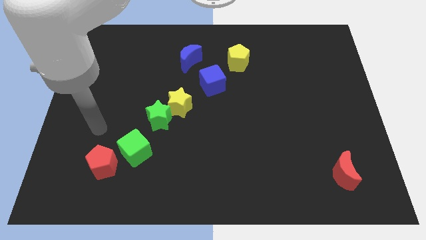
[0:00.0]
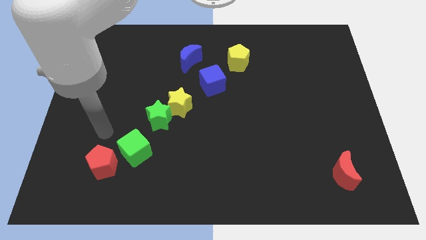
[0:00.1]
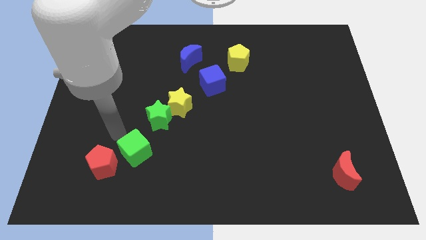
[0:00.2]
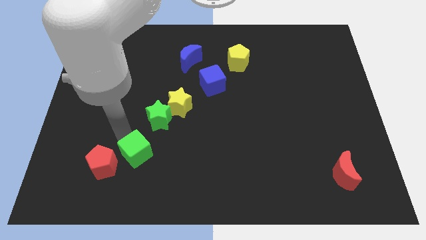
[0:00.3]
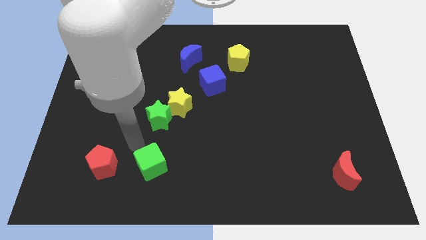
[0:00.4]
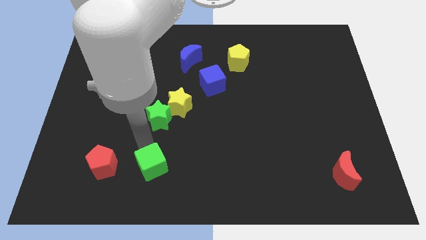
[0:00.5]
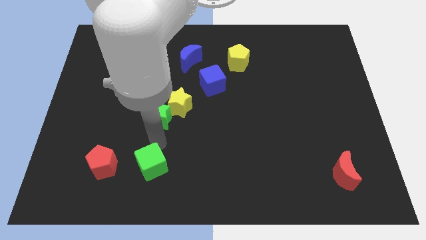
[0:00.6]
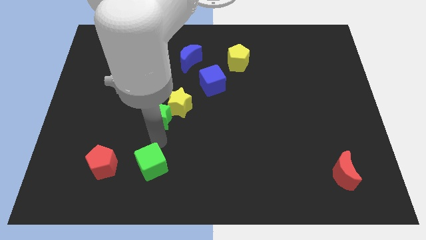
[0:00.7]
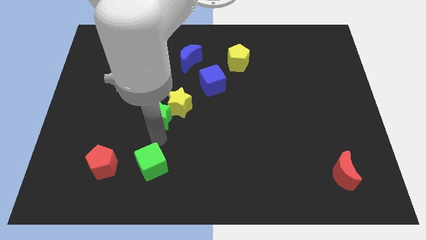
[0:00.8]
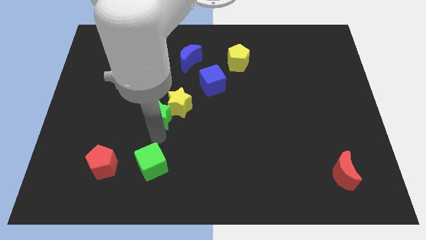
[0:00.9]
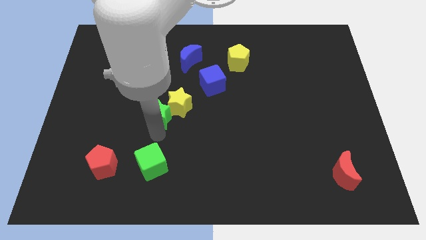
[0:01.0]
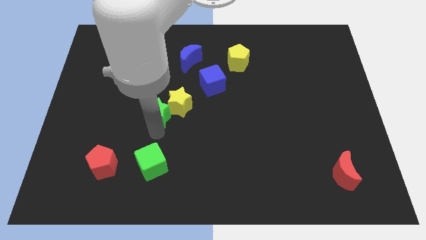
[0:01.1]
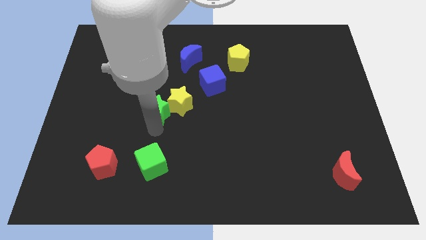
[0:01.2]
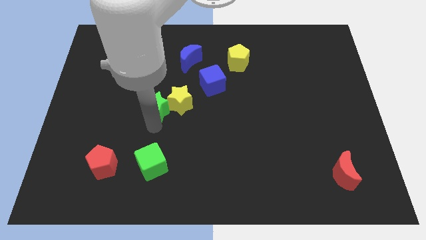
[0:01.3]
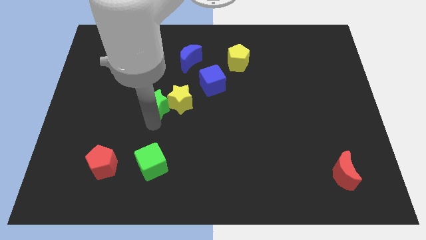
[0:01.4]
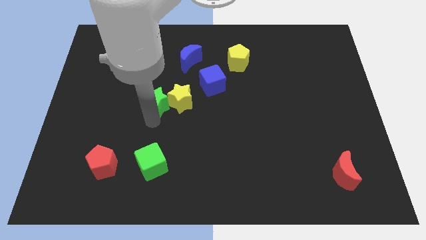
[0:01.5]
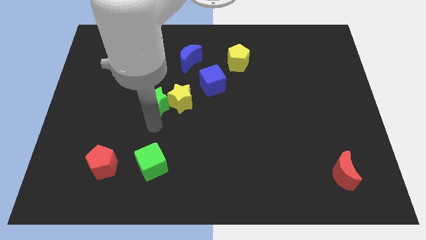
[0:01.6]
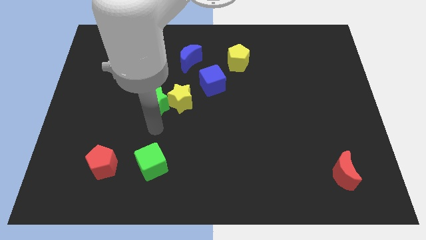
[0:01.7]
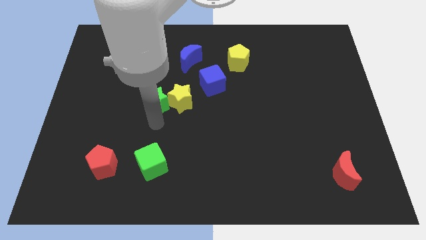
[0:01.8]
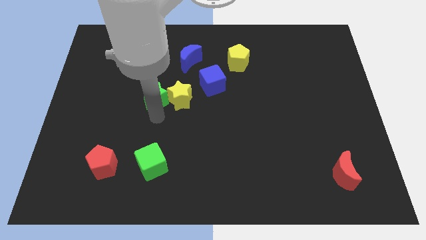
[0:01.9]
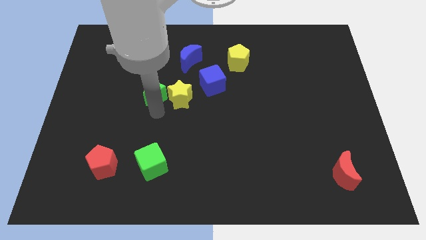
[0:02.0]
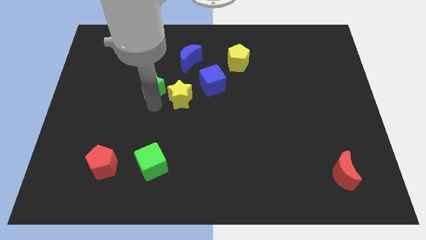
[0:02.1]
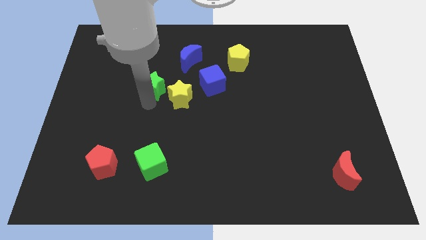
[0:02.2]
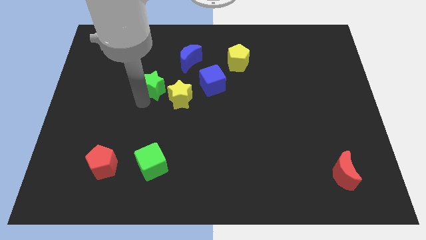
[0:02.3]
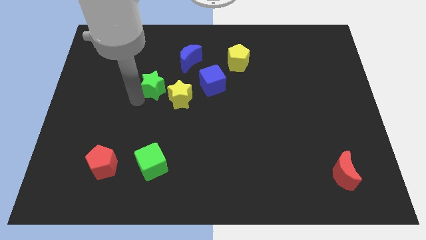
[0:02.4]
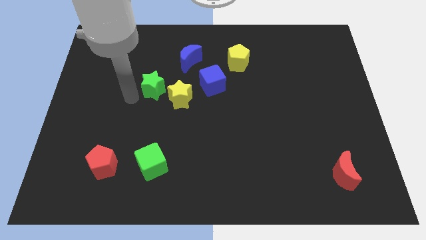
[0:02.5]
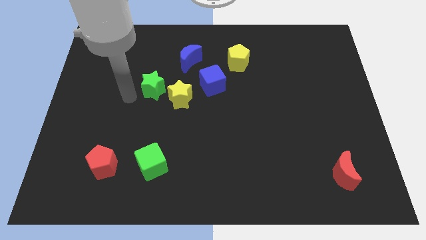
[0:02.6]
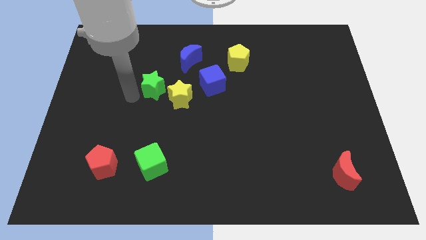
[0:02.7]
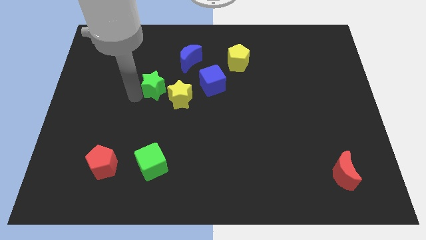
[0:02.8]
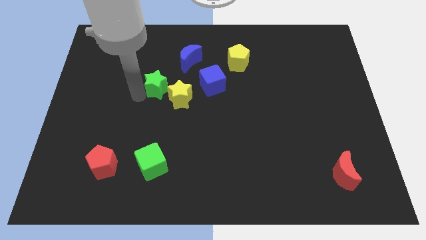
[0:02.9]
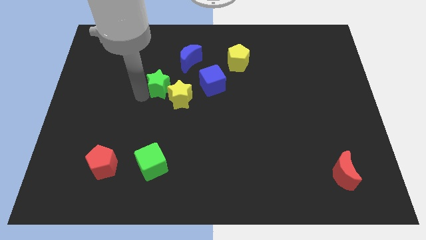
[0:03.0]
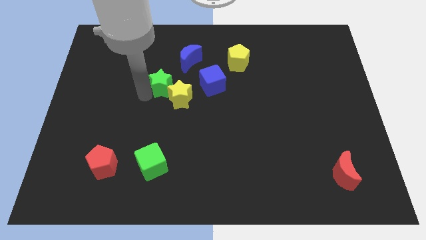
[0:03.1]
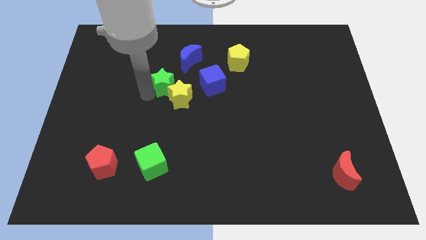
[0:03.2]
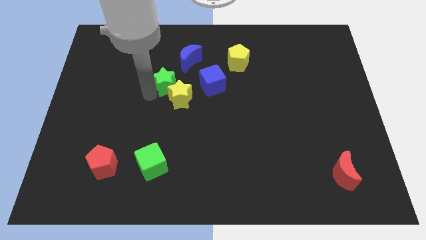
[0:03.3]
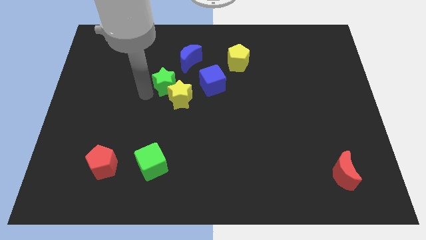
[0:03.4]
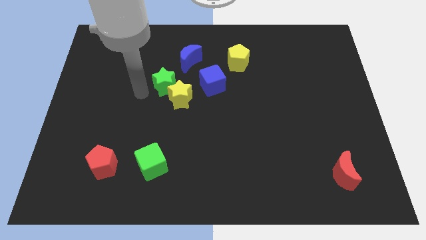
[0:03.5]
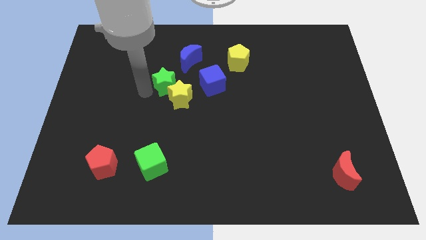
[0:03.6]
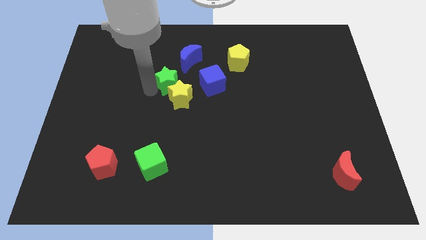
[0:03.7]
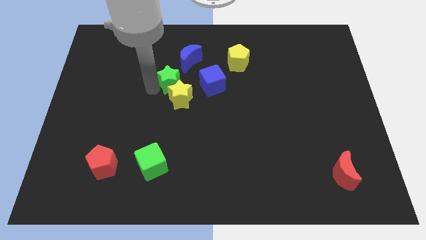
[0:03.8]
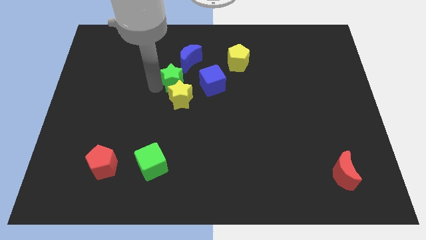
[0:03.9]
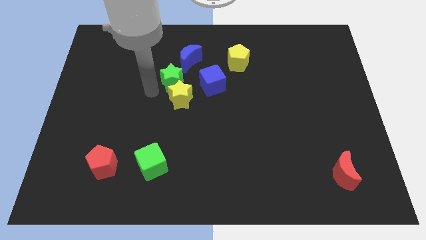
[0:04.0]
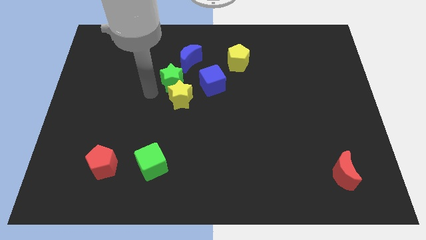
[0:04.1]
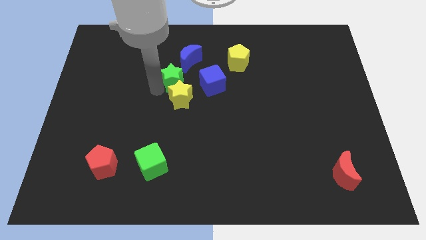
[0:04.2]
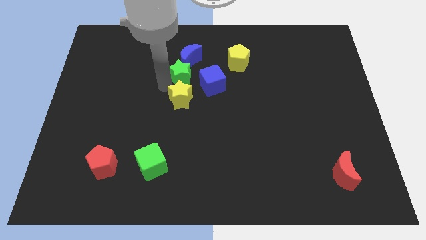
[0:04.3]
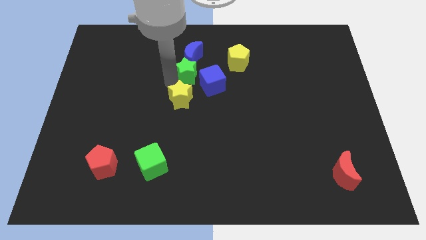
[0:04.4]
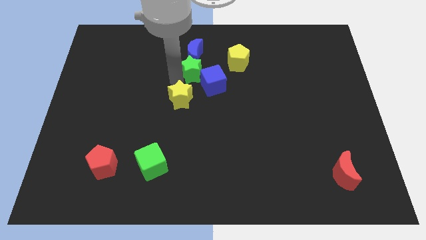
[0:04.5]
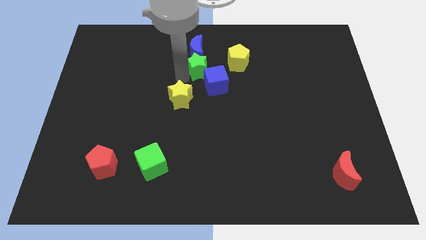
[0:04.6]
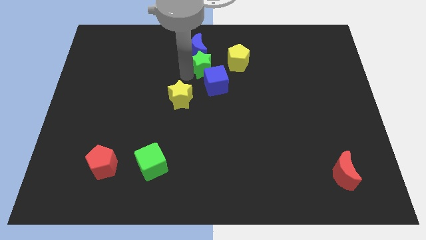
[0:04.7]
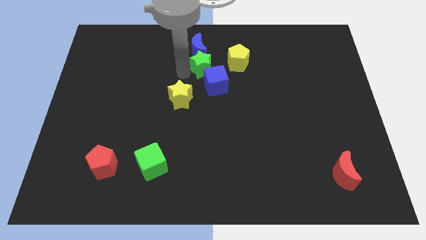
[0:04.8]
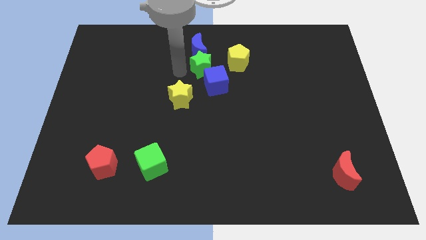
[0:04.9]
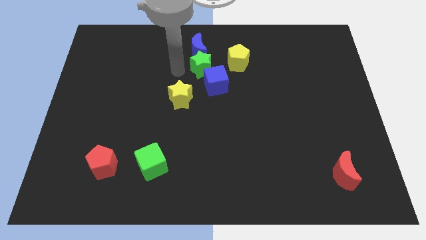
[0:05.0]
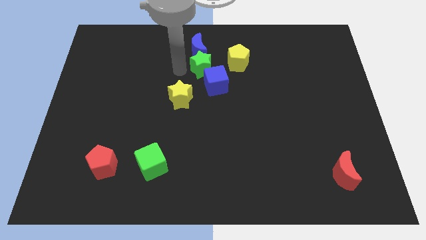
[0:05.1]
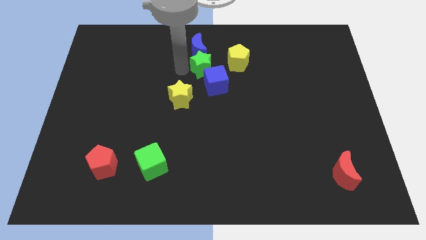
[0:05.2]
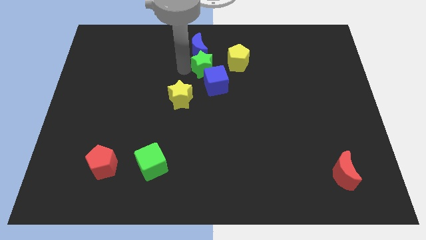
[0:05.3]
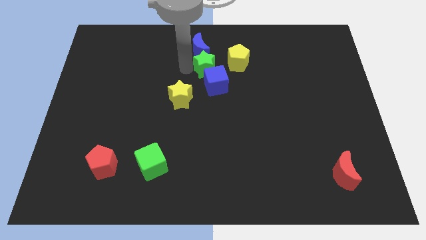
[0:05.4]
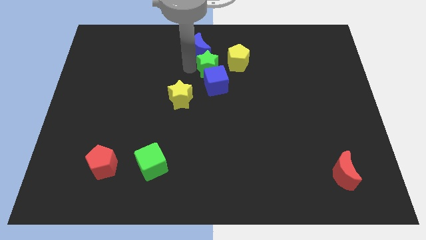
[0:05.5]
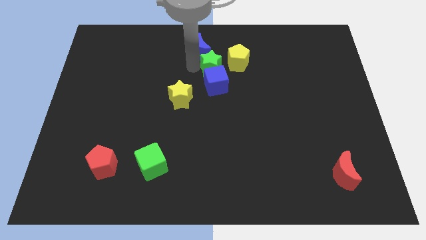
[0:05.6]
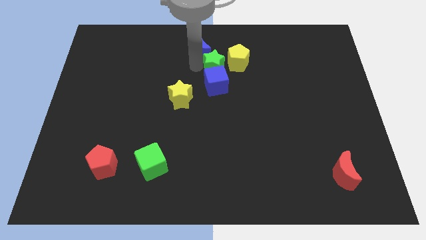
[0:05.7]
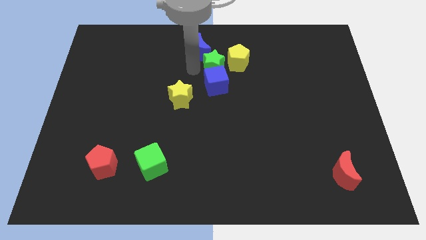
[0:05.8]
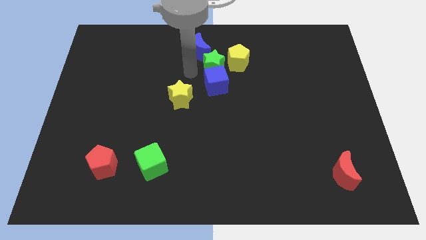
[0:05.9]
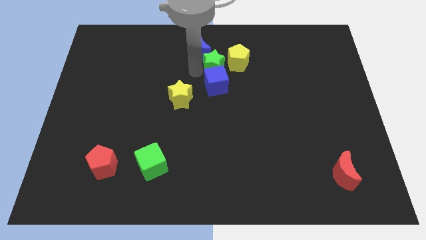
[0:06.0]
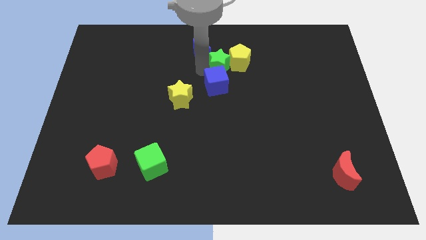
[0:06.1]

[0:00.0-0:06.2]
push the green star towards the yellow pentagon

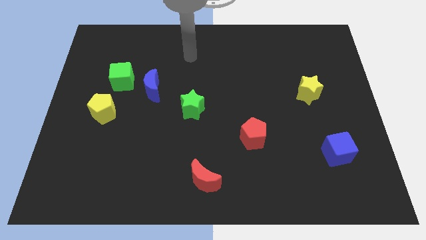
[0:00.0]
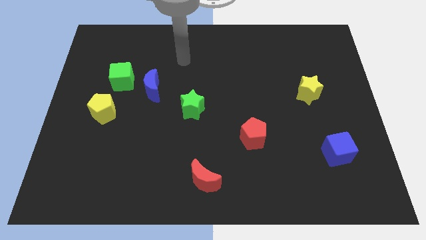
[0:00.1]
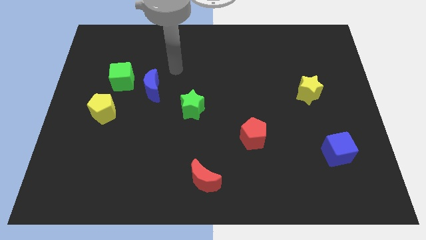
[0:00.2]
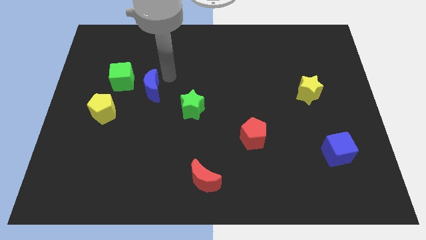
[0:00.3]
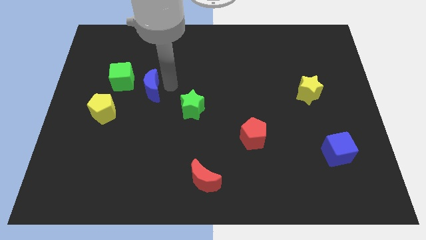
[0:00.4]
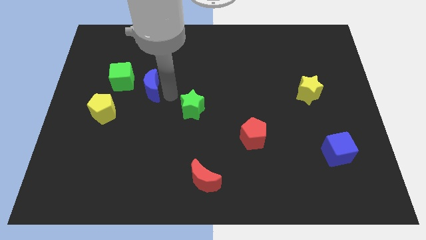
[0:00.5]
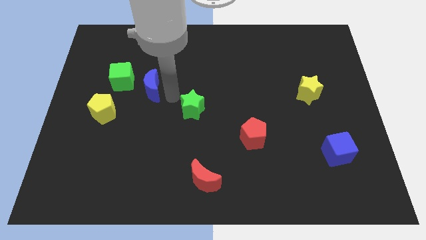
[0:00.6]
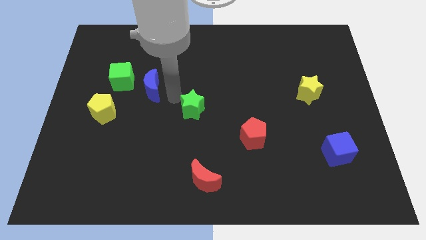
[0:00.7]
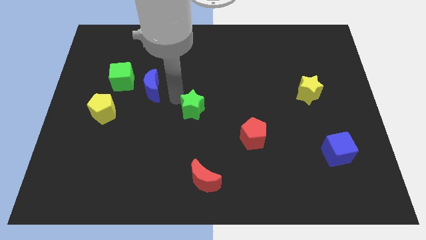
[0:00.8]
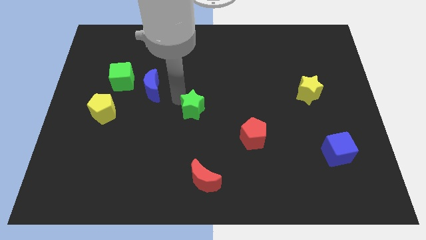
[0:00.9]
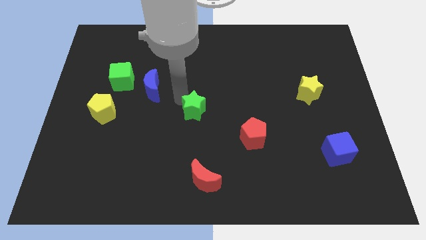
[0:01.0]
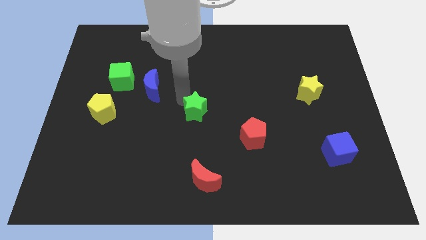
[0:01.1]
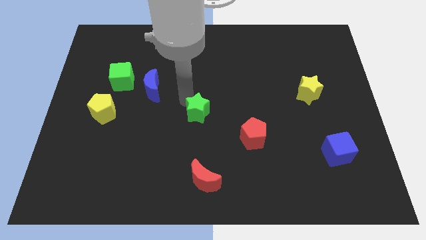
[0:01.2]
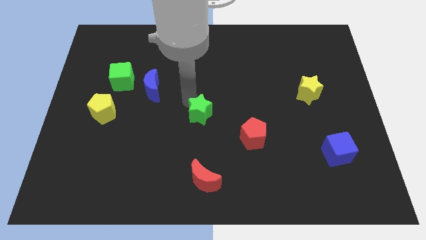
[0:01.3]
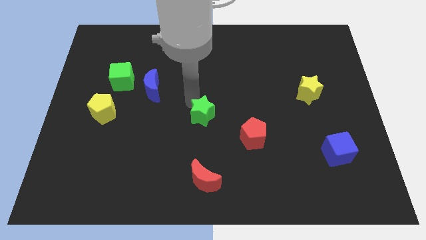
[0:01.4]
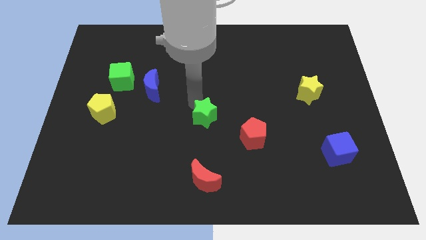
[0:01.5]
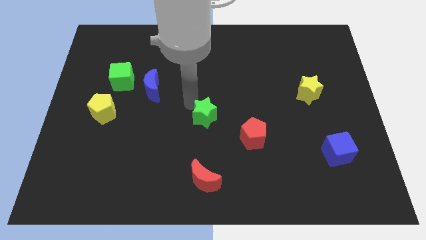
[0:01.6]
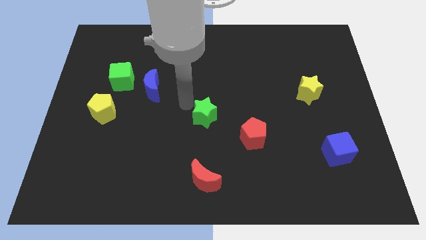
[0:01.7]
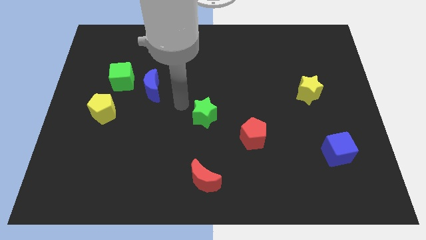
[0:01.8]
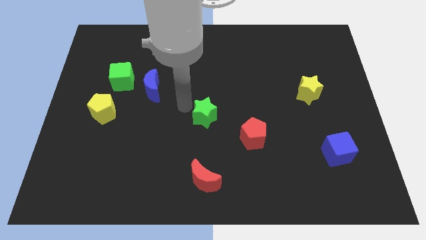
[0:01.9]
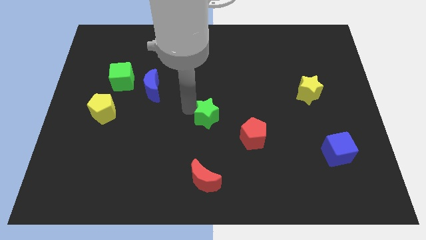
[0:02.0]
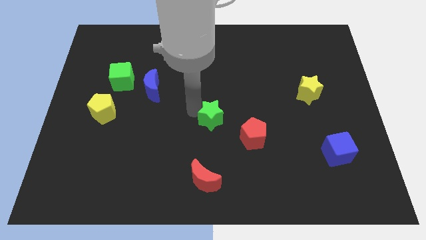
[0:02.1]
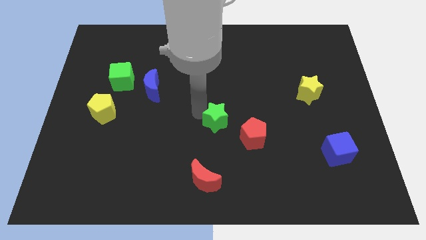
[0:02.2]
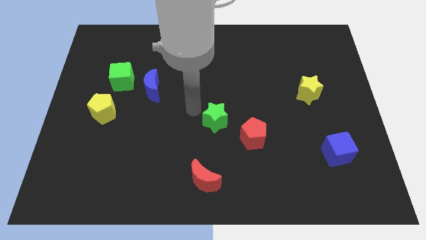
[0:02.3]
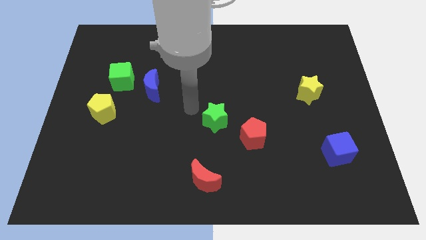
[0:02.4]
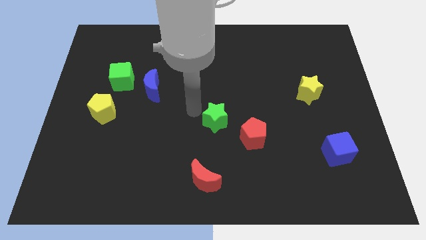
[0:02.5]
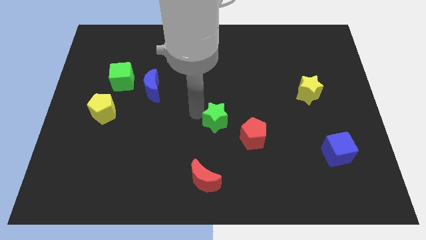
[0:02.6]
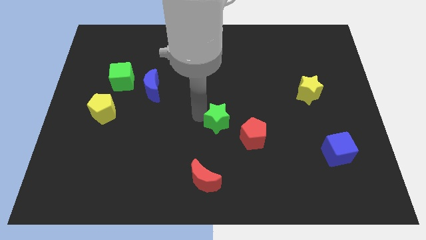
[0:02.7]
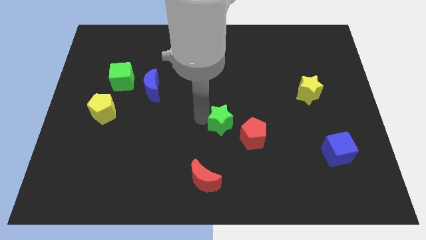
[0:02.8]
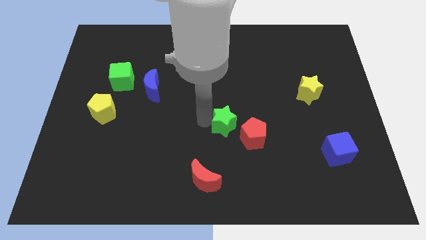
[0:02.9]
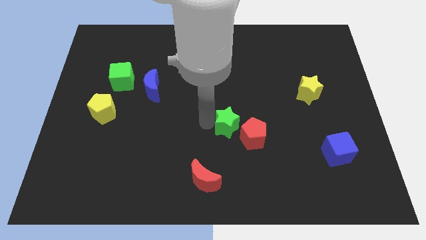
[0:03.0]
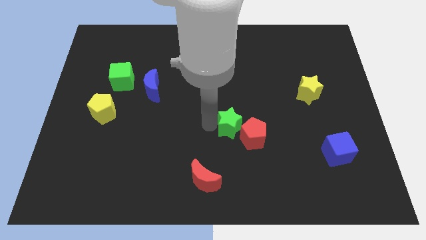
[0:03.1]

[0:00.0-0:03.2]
put the green star next to the red pentagon
